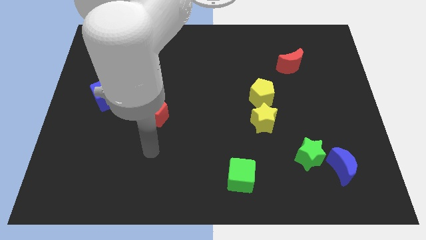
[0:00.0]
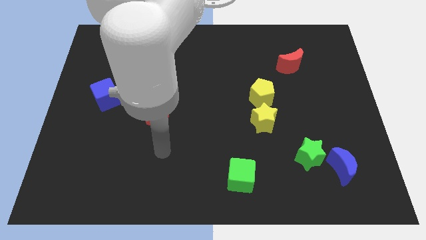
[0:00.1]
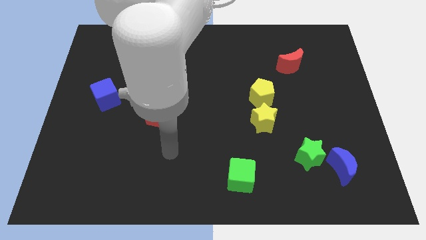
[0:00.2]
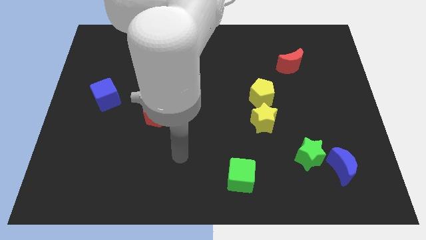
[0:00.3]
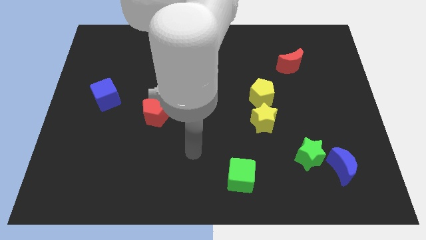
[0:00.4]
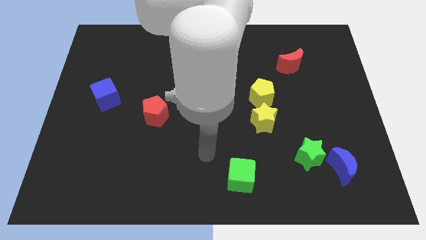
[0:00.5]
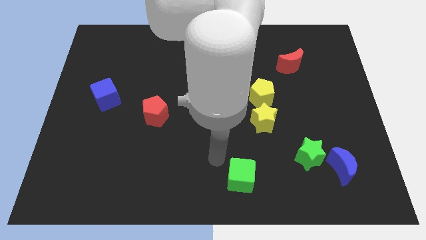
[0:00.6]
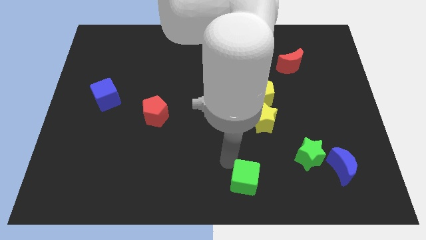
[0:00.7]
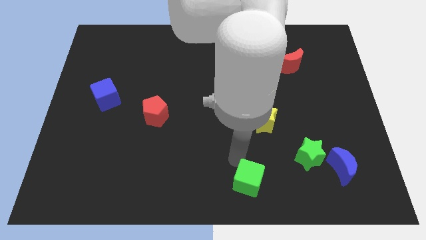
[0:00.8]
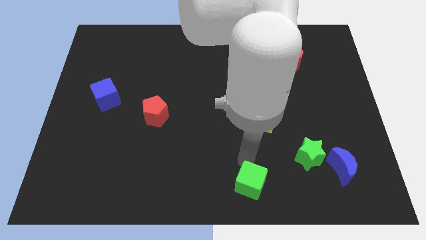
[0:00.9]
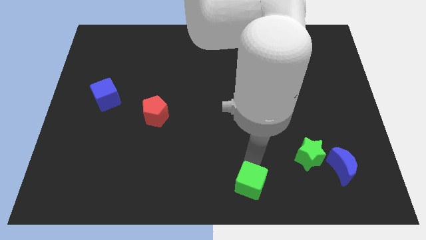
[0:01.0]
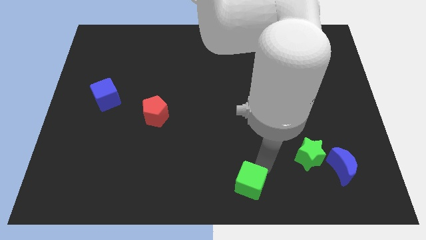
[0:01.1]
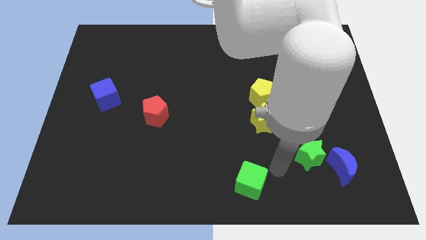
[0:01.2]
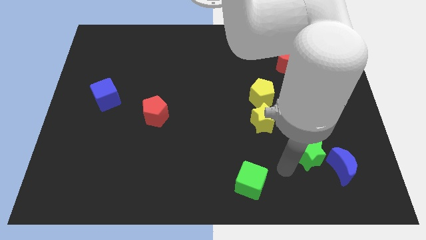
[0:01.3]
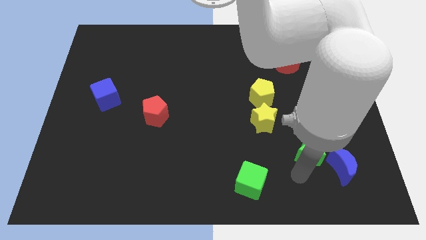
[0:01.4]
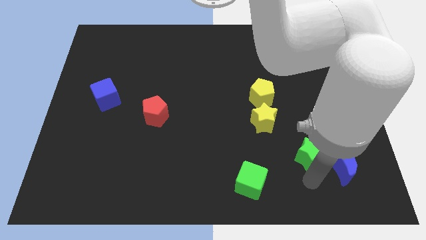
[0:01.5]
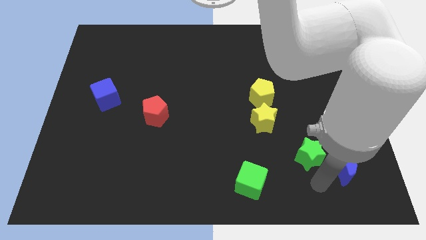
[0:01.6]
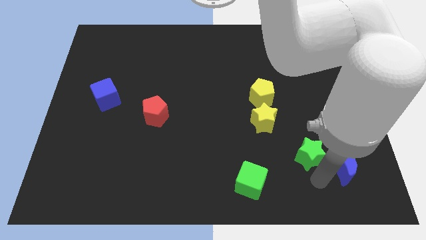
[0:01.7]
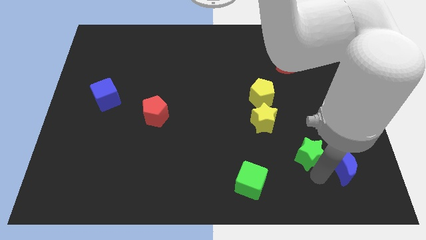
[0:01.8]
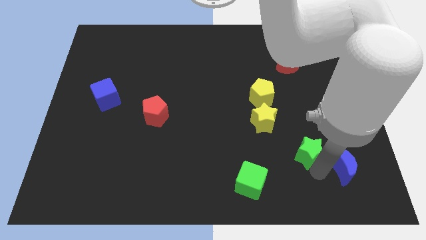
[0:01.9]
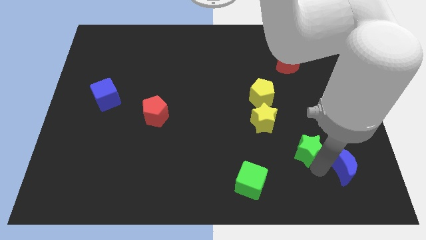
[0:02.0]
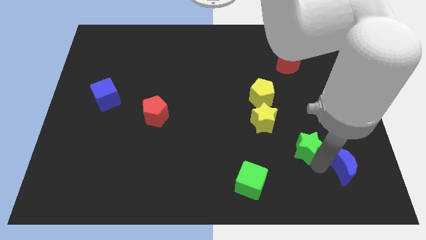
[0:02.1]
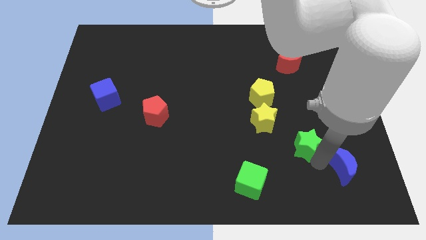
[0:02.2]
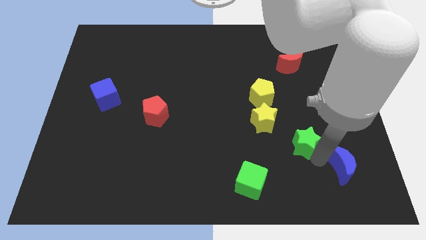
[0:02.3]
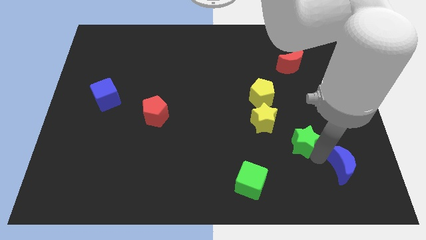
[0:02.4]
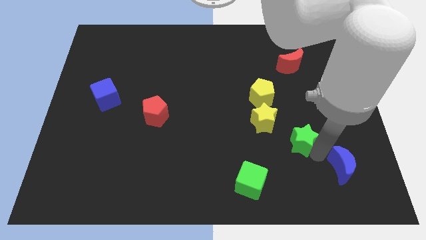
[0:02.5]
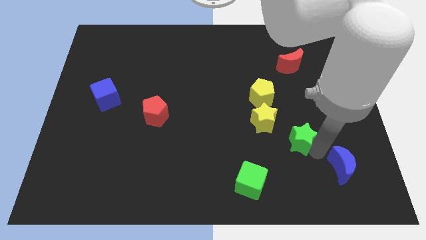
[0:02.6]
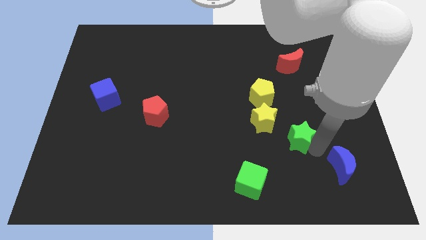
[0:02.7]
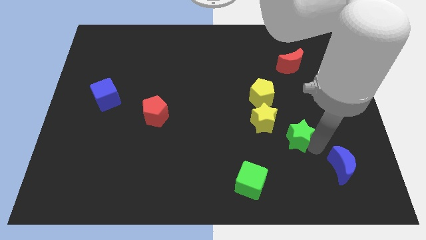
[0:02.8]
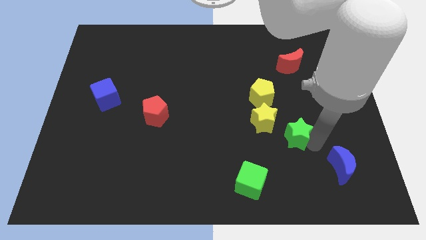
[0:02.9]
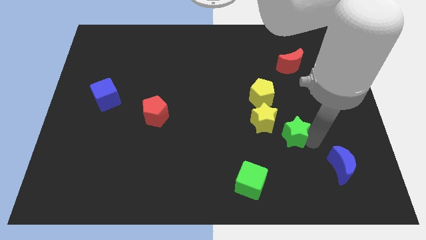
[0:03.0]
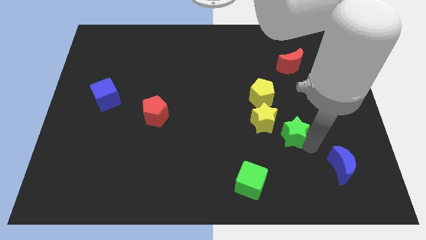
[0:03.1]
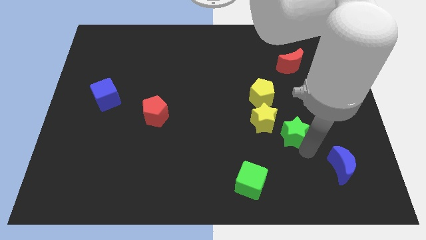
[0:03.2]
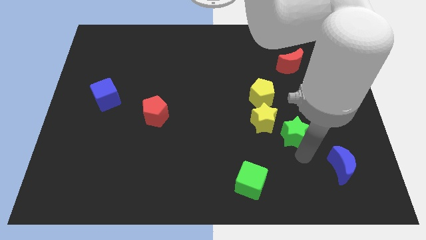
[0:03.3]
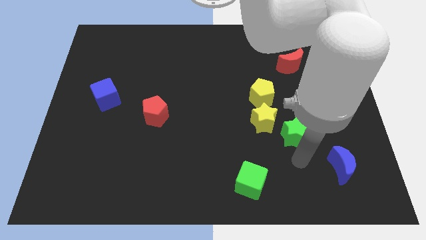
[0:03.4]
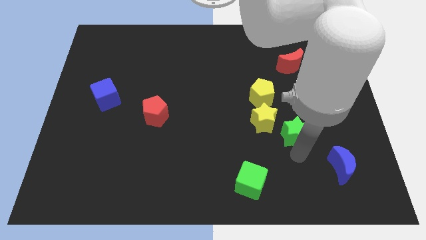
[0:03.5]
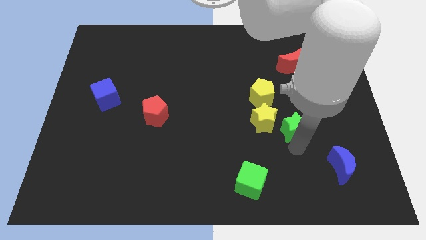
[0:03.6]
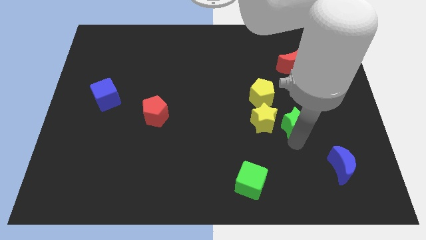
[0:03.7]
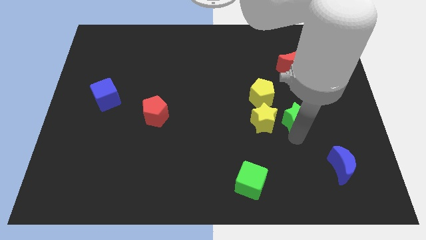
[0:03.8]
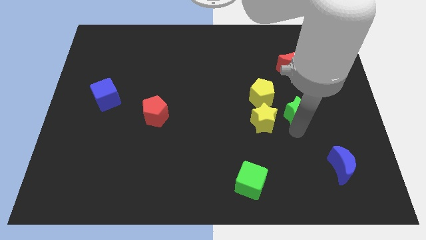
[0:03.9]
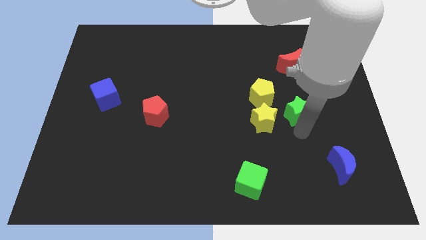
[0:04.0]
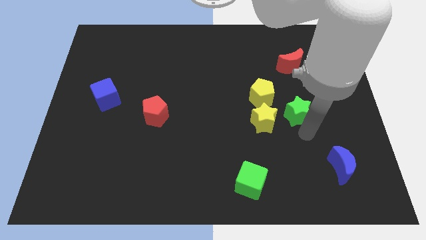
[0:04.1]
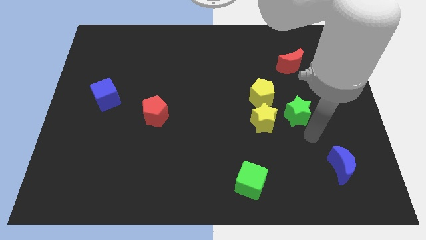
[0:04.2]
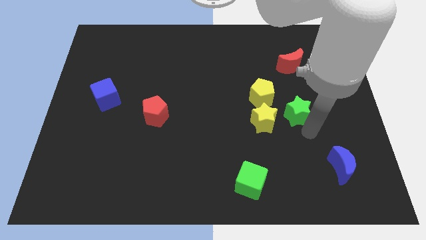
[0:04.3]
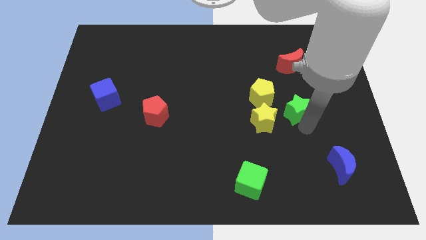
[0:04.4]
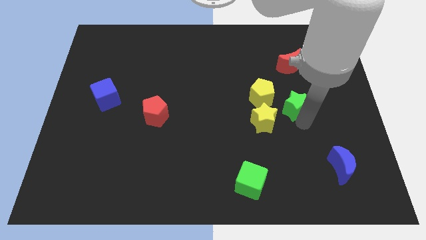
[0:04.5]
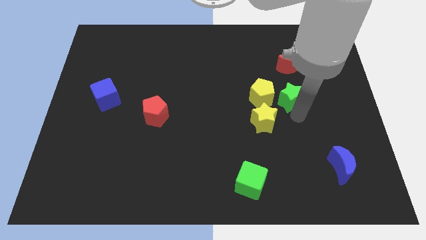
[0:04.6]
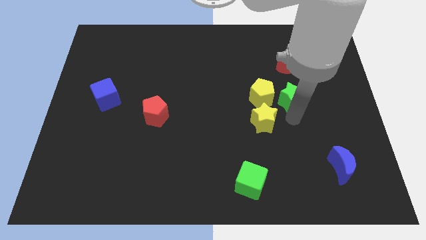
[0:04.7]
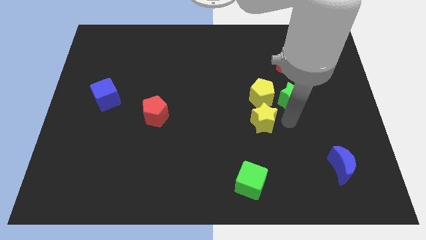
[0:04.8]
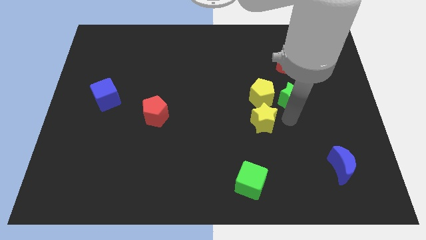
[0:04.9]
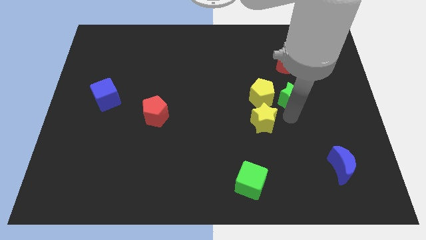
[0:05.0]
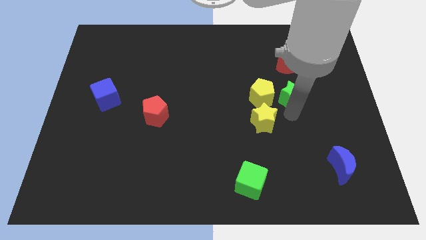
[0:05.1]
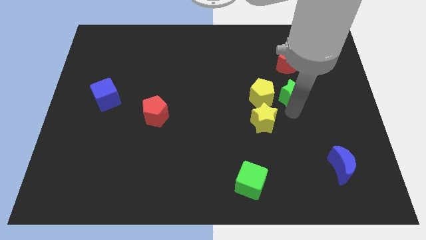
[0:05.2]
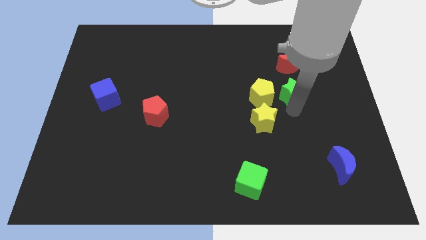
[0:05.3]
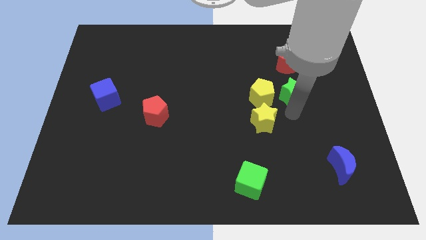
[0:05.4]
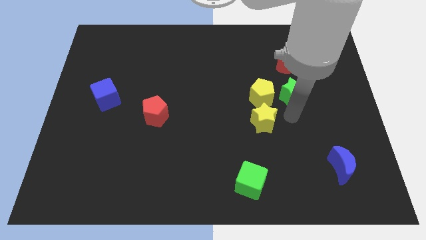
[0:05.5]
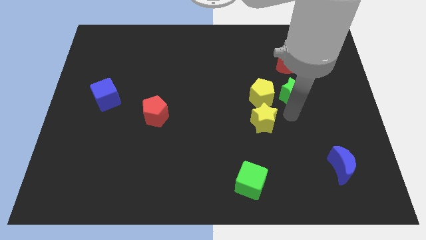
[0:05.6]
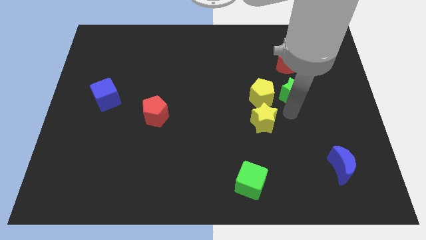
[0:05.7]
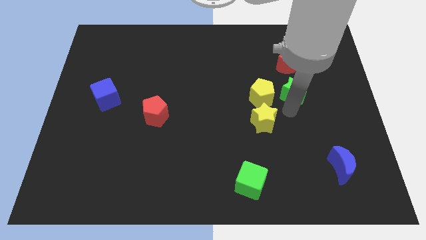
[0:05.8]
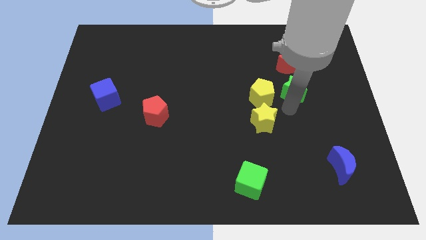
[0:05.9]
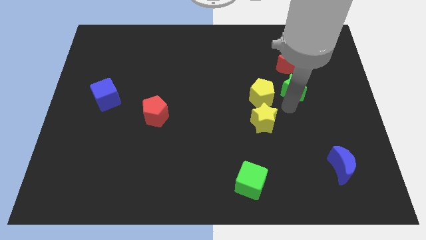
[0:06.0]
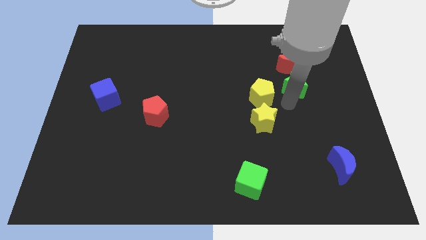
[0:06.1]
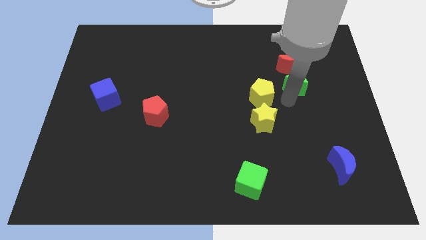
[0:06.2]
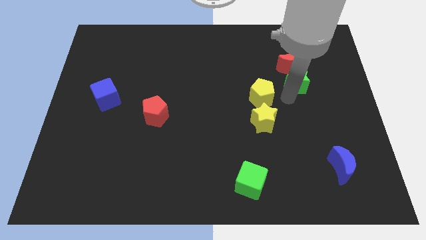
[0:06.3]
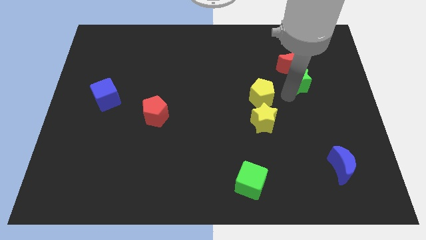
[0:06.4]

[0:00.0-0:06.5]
put the green star to the red moon
